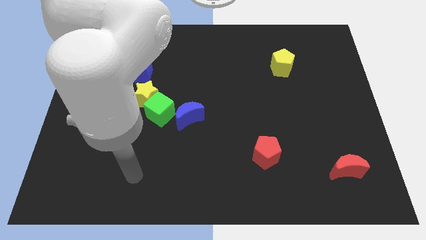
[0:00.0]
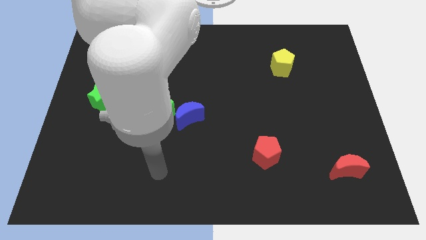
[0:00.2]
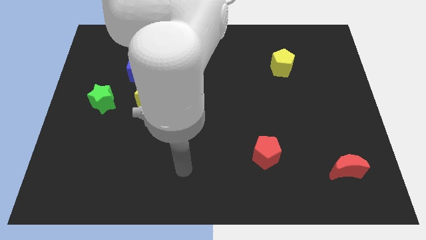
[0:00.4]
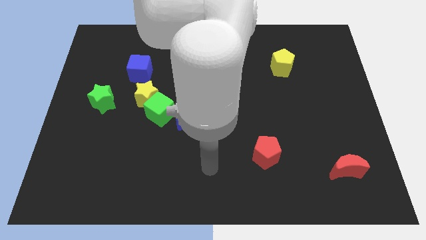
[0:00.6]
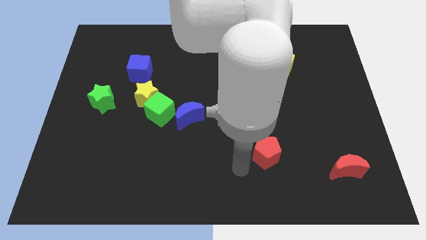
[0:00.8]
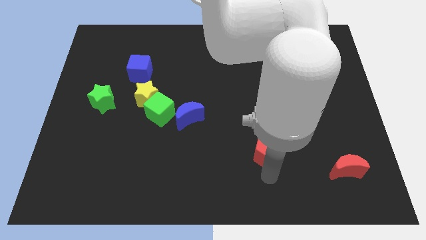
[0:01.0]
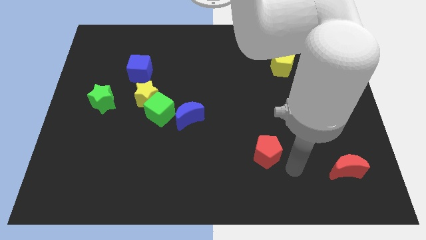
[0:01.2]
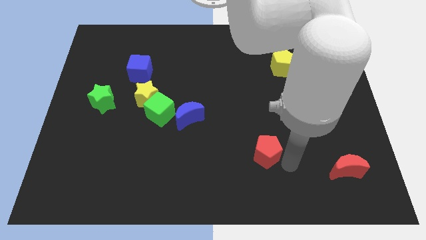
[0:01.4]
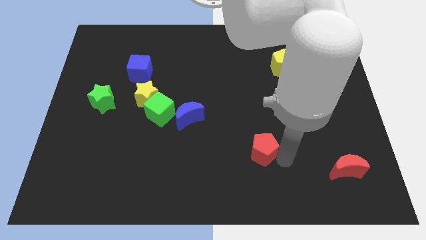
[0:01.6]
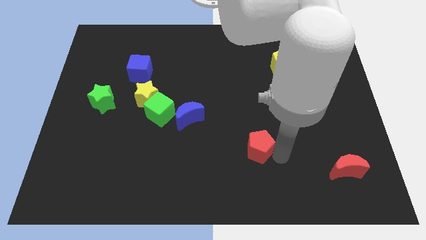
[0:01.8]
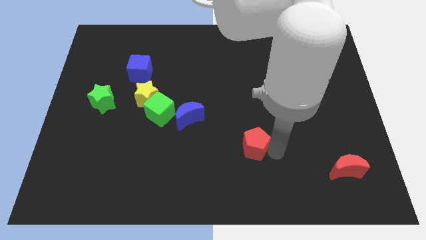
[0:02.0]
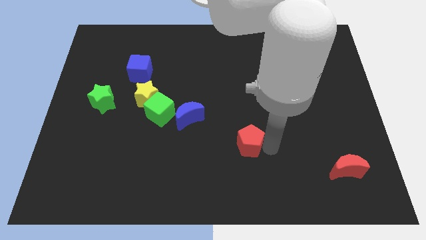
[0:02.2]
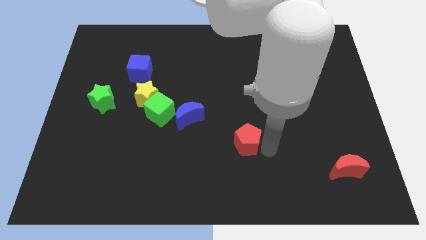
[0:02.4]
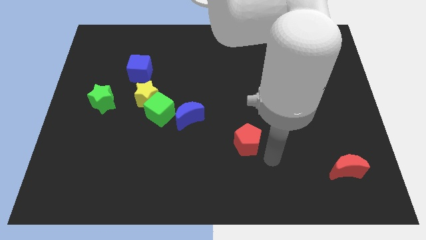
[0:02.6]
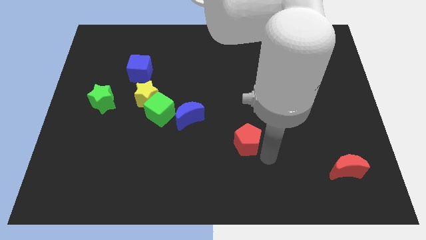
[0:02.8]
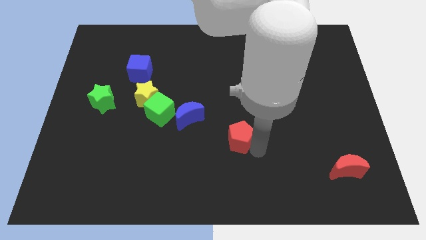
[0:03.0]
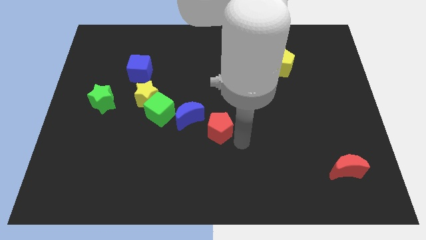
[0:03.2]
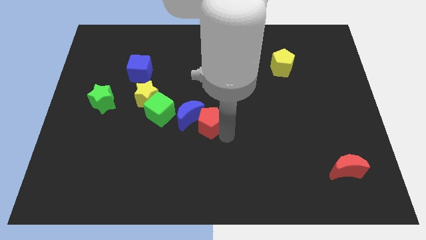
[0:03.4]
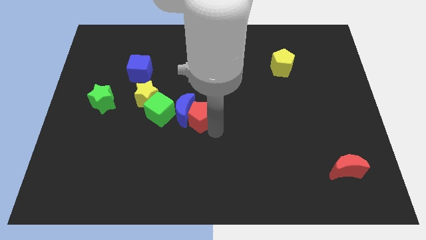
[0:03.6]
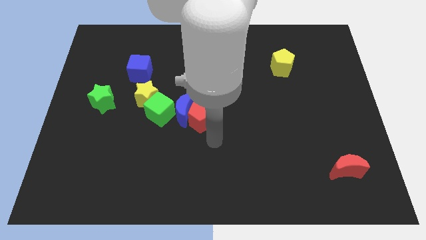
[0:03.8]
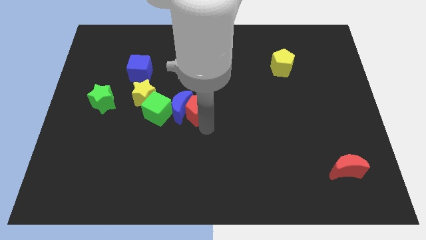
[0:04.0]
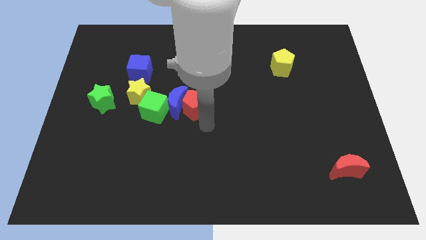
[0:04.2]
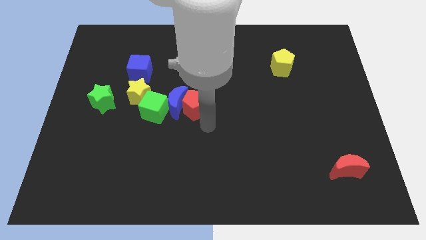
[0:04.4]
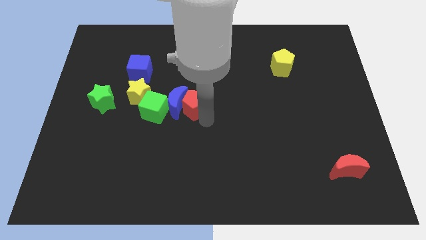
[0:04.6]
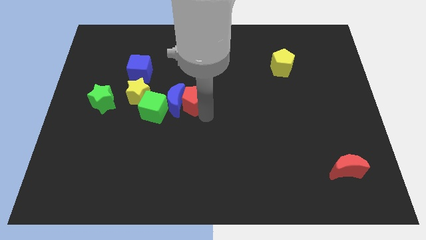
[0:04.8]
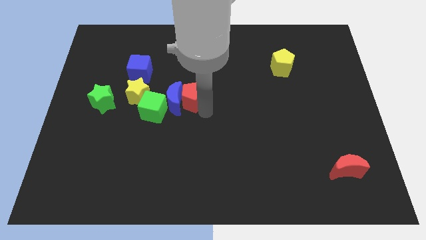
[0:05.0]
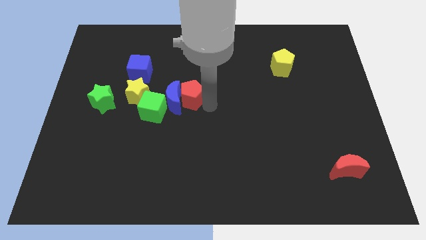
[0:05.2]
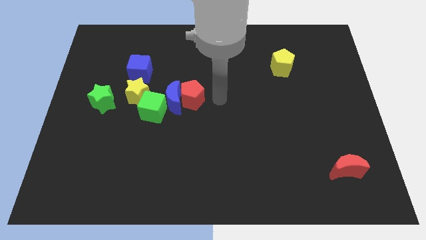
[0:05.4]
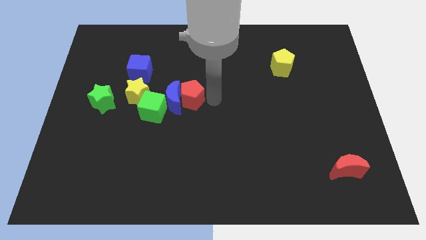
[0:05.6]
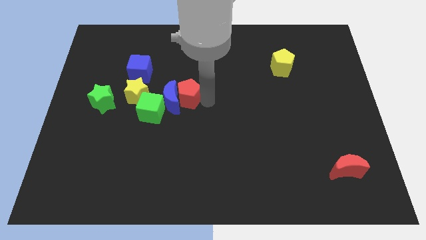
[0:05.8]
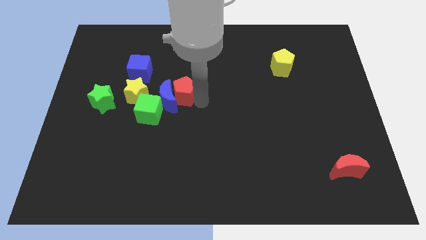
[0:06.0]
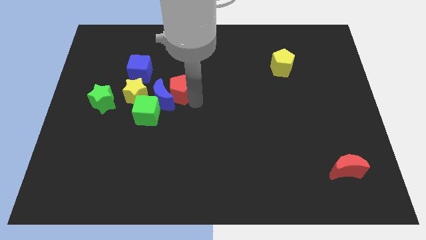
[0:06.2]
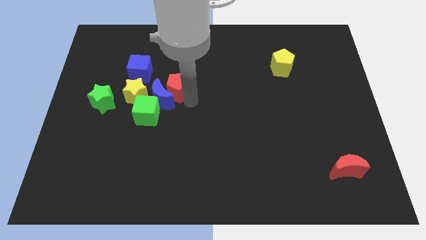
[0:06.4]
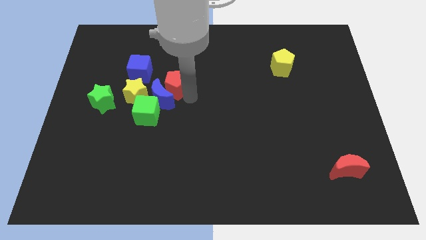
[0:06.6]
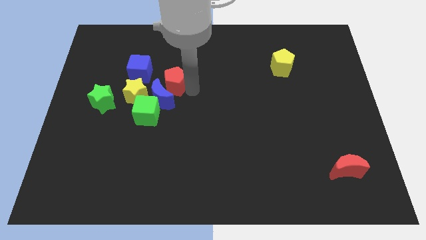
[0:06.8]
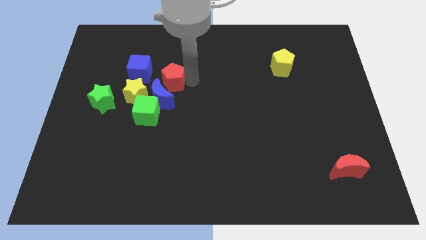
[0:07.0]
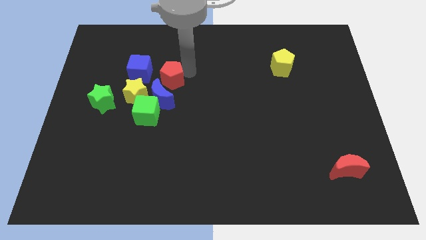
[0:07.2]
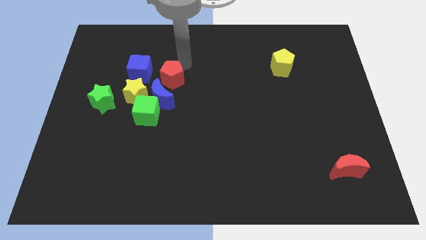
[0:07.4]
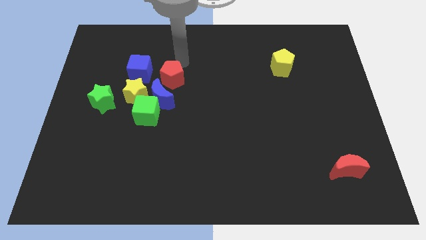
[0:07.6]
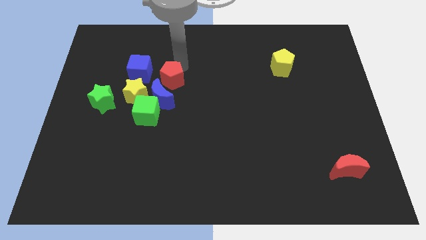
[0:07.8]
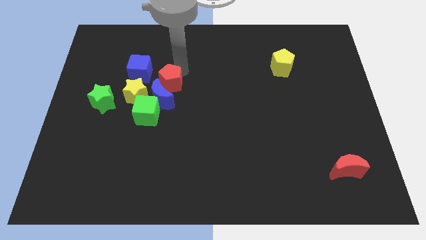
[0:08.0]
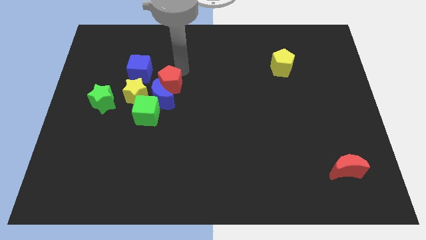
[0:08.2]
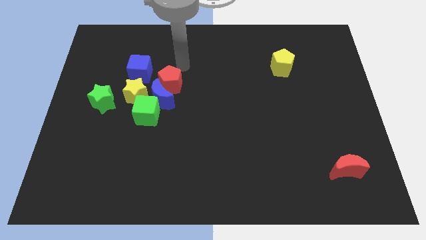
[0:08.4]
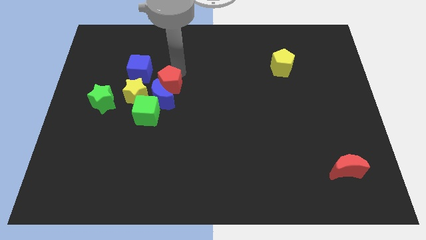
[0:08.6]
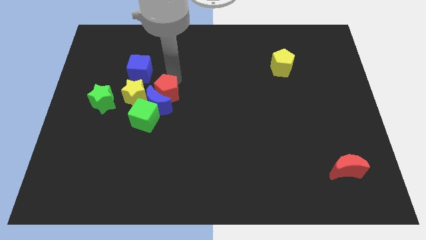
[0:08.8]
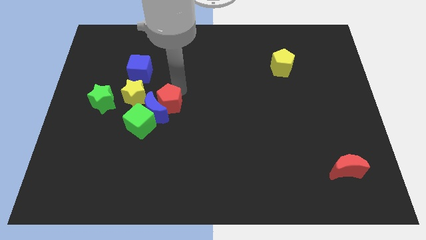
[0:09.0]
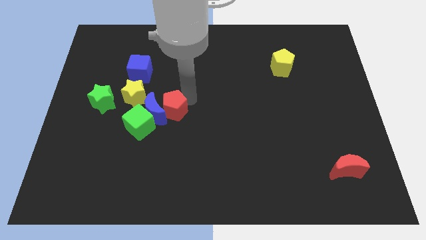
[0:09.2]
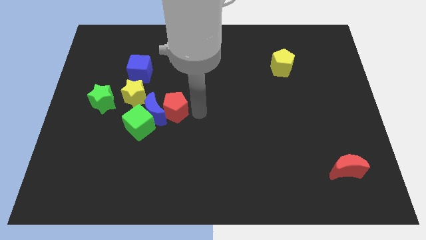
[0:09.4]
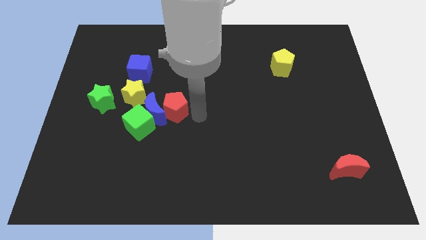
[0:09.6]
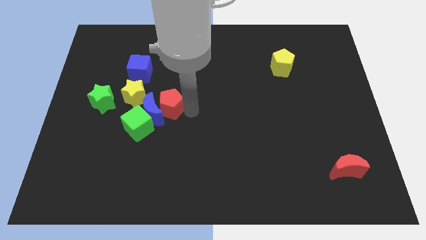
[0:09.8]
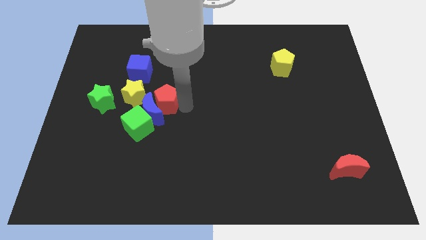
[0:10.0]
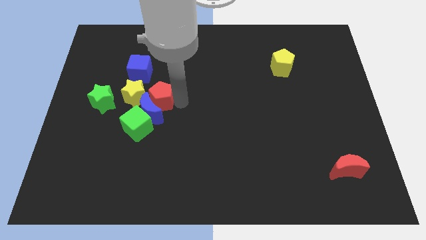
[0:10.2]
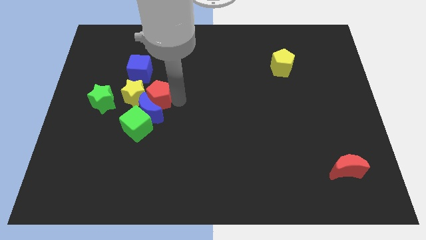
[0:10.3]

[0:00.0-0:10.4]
put the red pentagon close to the yellow star

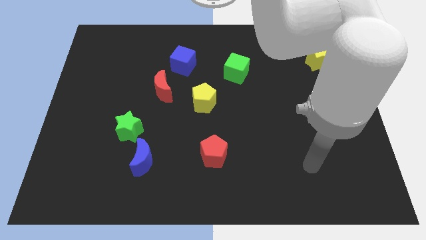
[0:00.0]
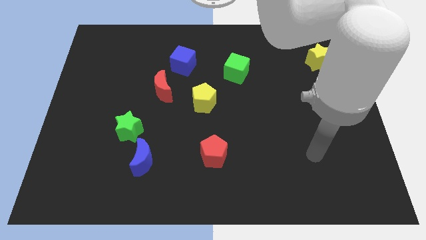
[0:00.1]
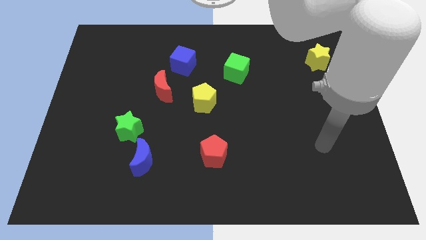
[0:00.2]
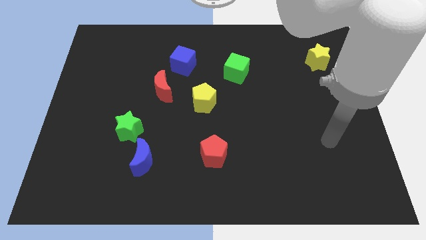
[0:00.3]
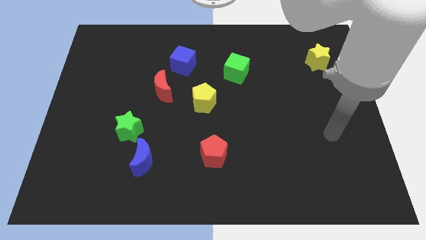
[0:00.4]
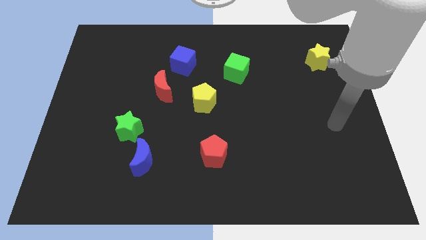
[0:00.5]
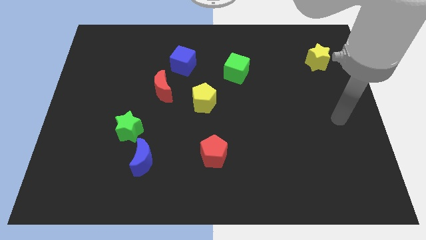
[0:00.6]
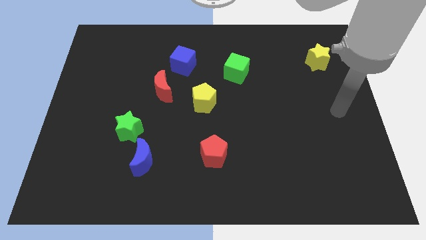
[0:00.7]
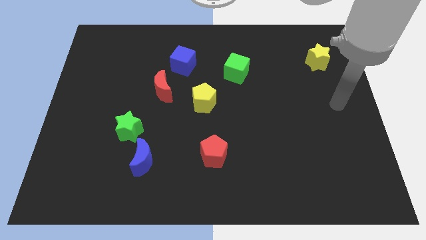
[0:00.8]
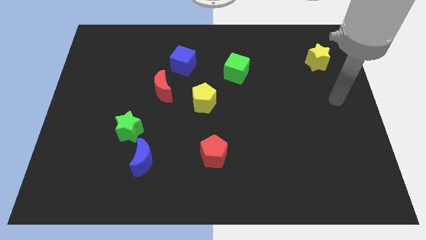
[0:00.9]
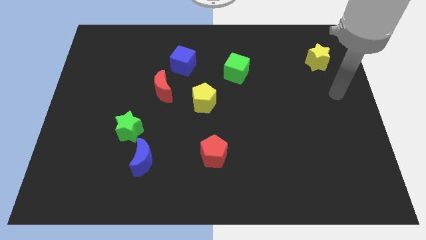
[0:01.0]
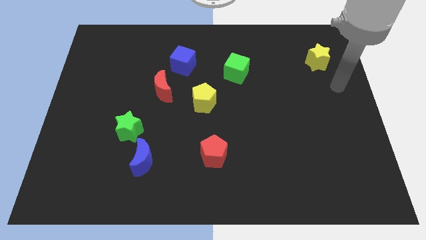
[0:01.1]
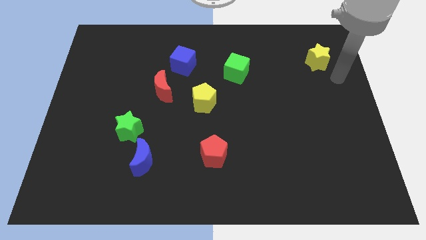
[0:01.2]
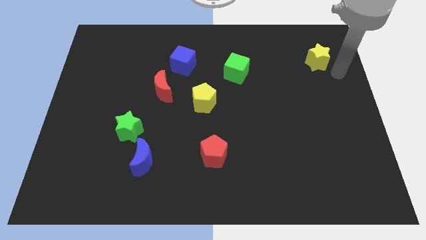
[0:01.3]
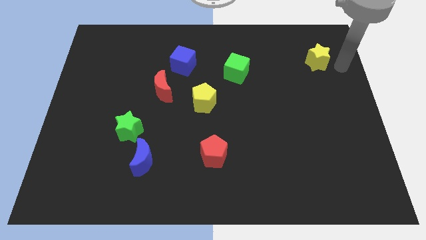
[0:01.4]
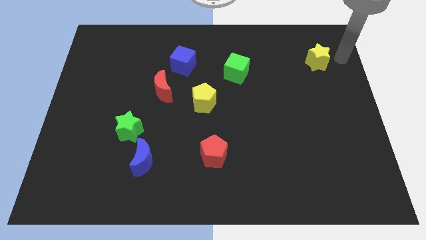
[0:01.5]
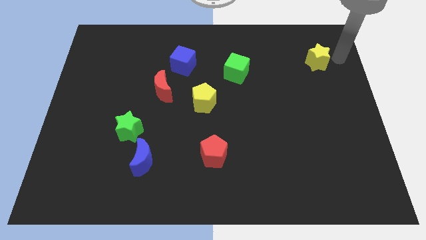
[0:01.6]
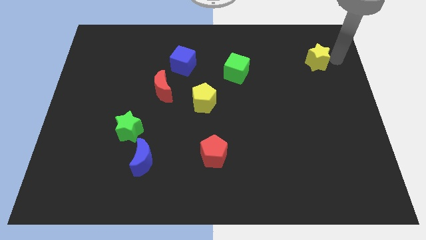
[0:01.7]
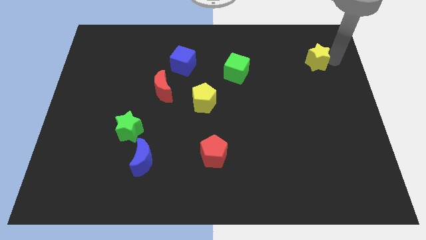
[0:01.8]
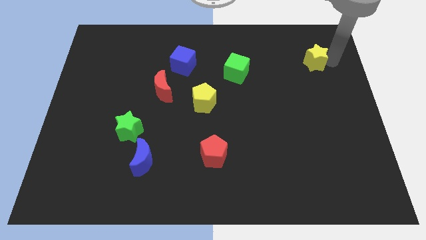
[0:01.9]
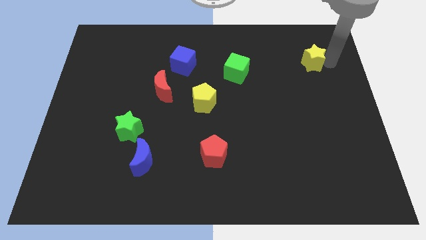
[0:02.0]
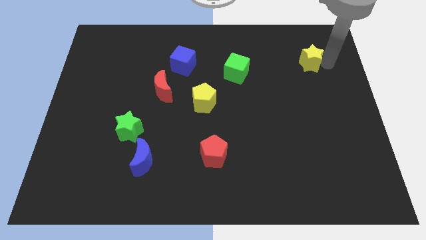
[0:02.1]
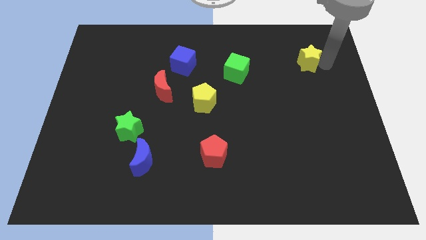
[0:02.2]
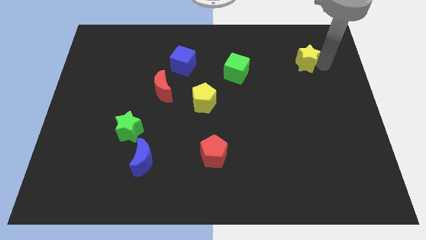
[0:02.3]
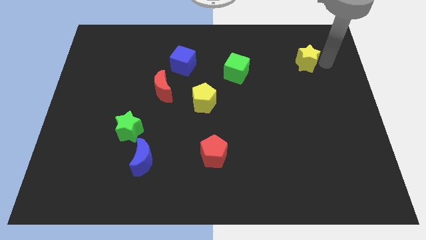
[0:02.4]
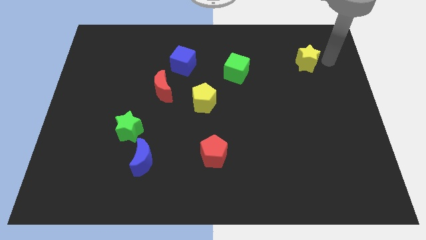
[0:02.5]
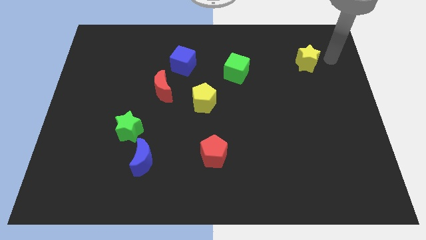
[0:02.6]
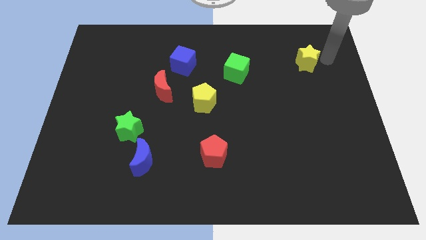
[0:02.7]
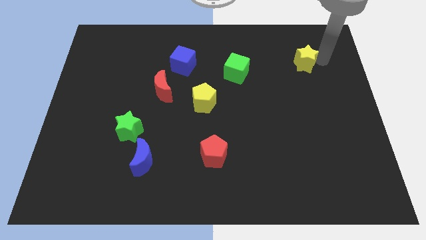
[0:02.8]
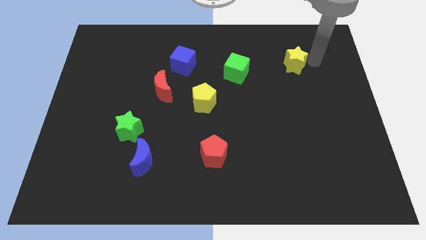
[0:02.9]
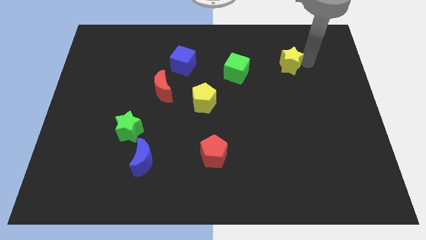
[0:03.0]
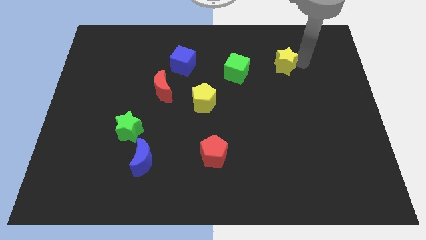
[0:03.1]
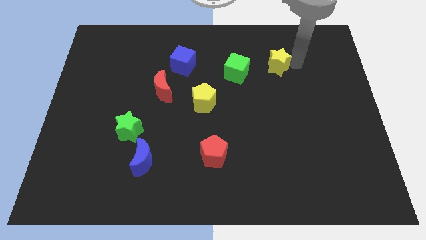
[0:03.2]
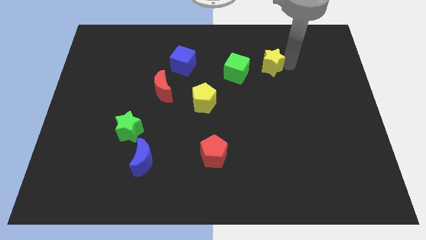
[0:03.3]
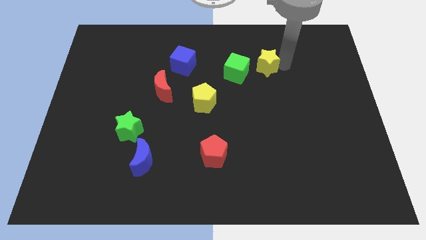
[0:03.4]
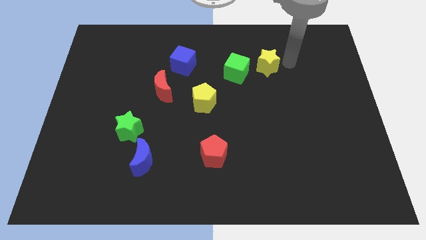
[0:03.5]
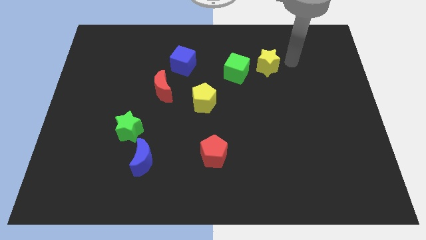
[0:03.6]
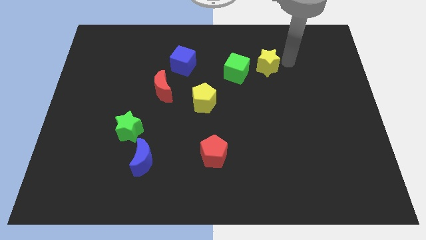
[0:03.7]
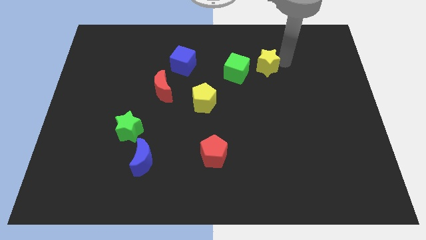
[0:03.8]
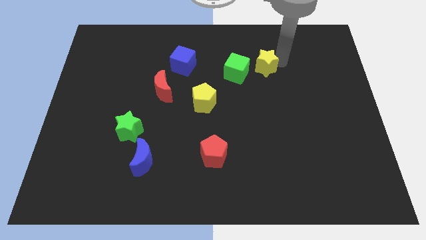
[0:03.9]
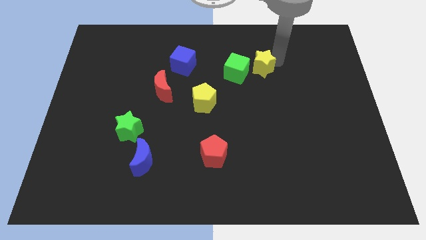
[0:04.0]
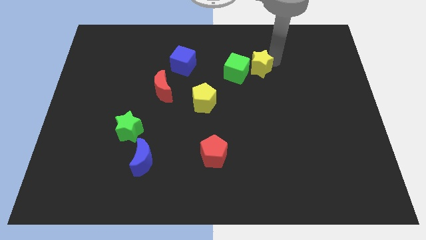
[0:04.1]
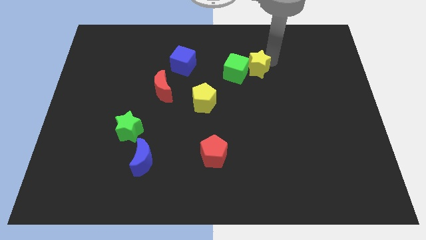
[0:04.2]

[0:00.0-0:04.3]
move the yellow star to the green cube
